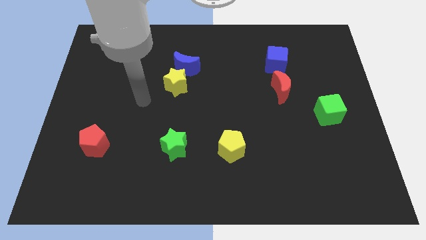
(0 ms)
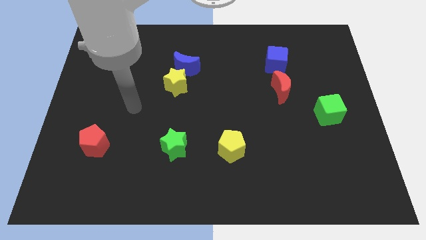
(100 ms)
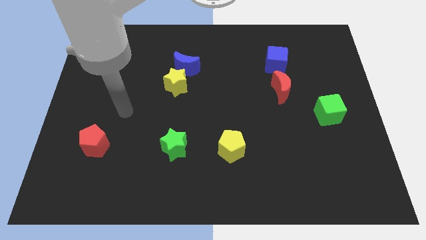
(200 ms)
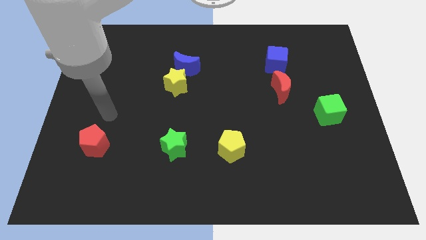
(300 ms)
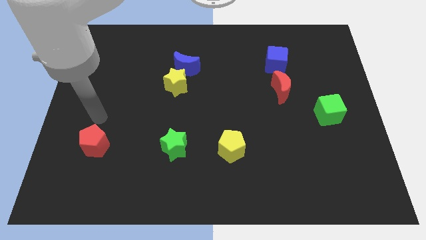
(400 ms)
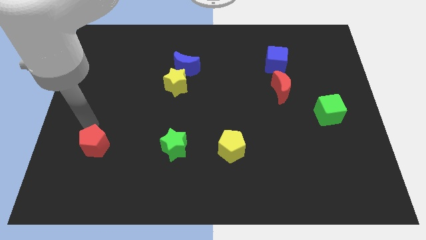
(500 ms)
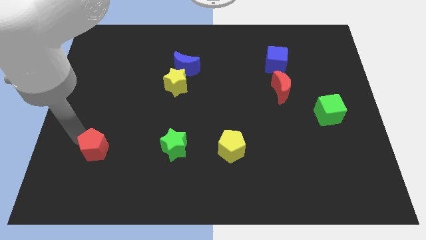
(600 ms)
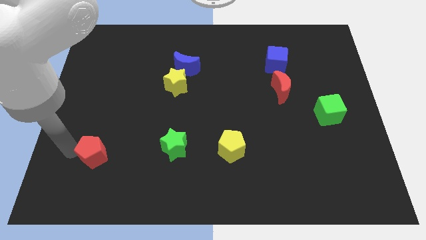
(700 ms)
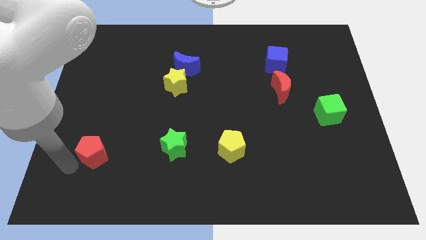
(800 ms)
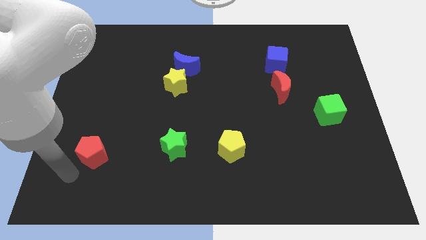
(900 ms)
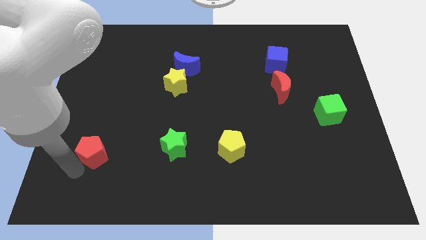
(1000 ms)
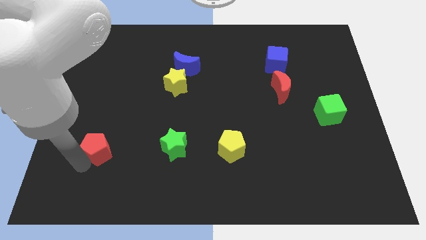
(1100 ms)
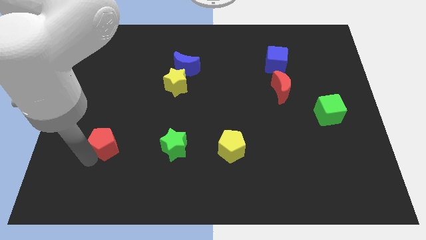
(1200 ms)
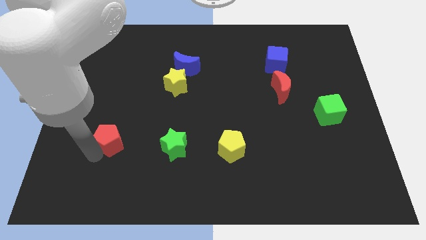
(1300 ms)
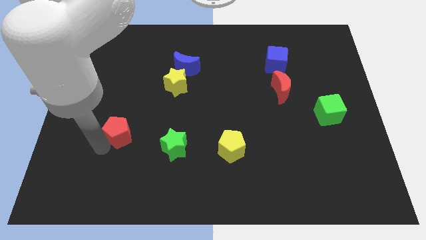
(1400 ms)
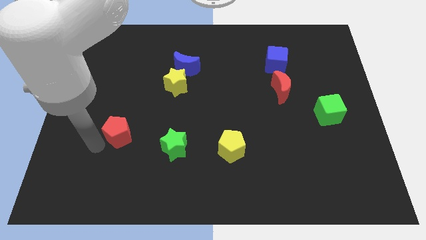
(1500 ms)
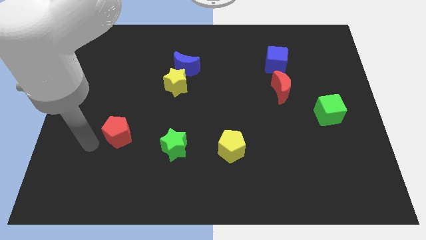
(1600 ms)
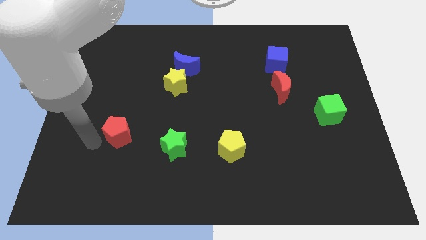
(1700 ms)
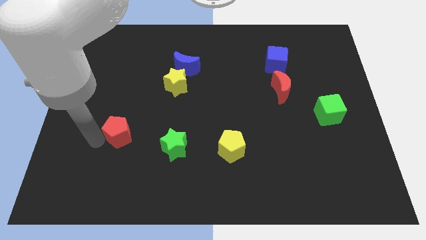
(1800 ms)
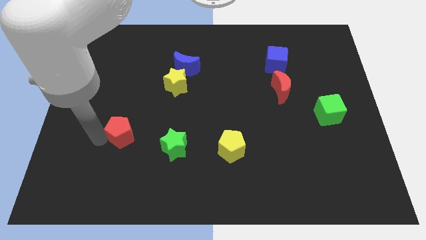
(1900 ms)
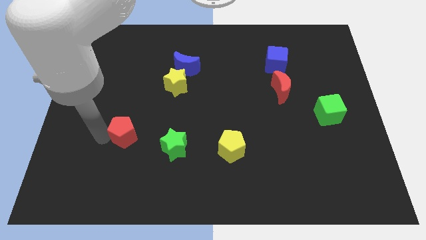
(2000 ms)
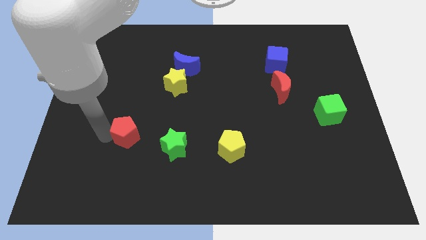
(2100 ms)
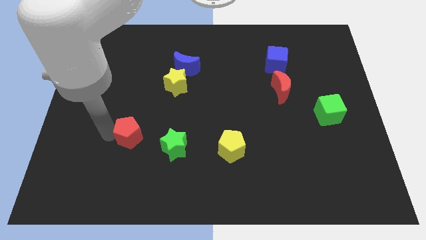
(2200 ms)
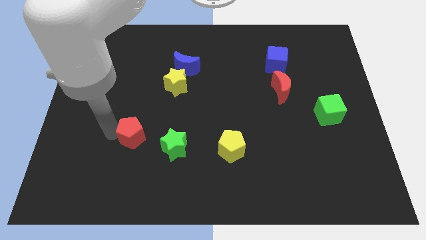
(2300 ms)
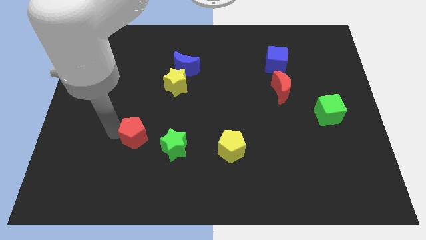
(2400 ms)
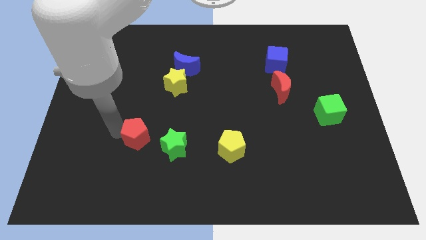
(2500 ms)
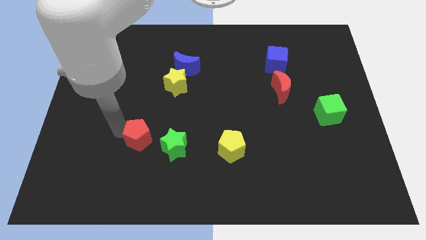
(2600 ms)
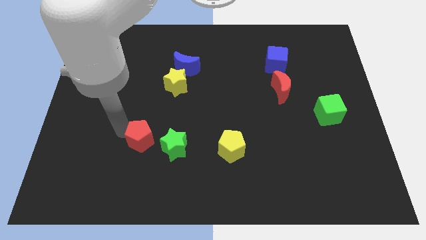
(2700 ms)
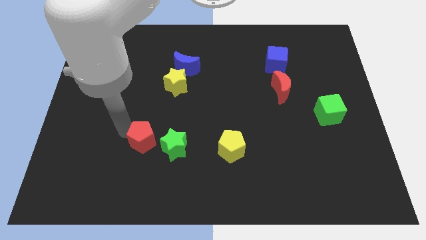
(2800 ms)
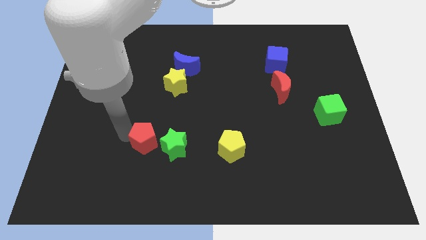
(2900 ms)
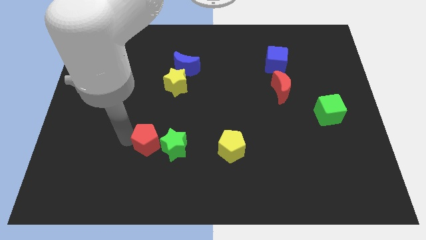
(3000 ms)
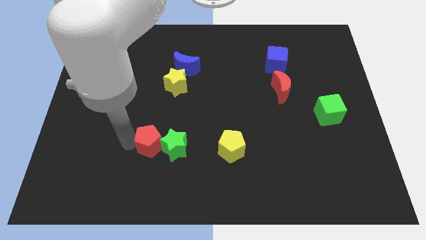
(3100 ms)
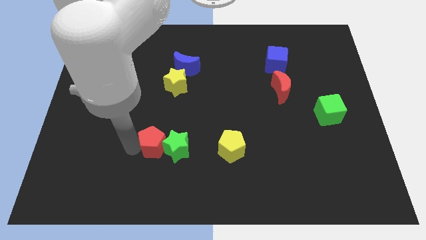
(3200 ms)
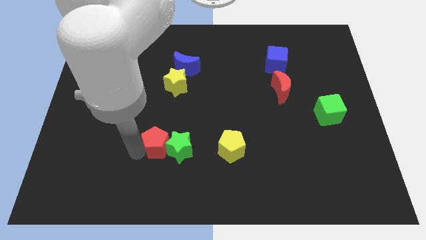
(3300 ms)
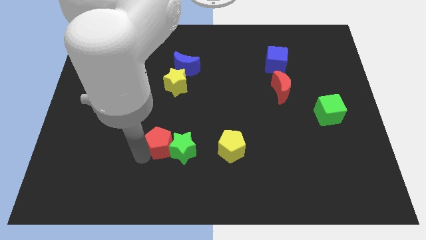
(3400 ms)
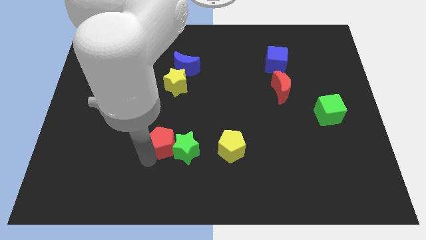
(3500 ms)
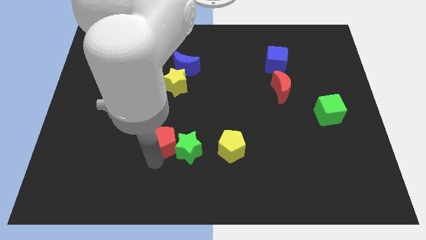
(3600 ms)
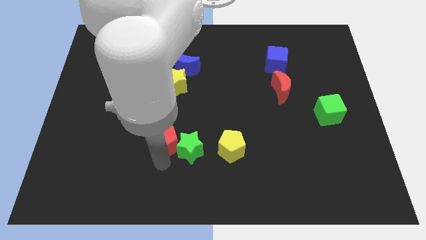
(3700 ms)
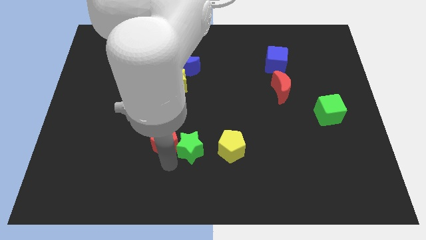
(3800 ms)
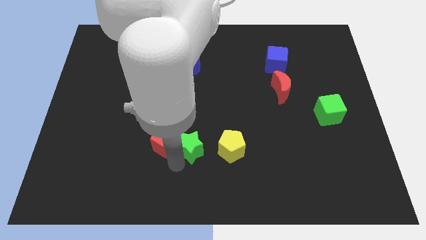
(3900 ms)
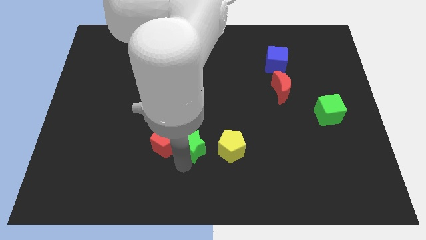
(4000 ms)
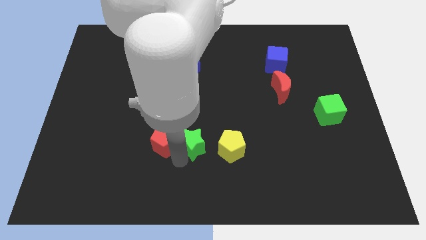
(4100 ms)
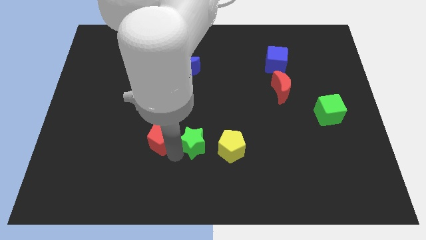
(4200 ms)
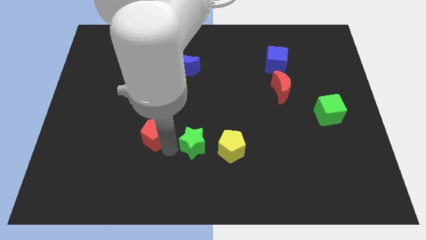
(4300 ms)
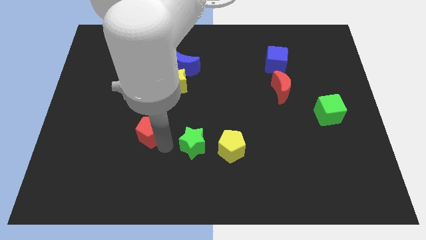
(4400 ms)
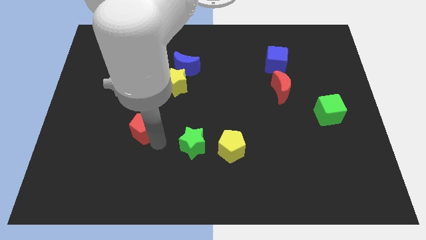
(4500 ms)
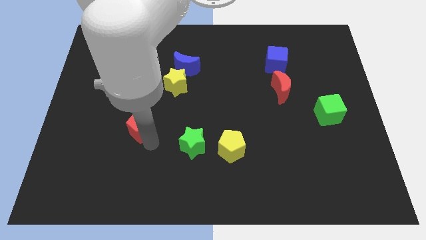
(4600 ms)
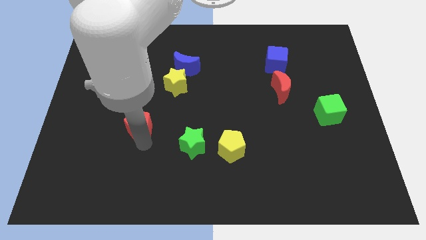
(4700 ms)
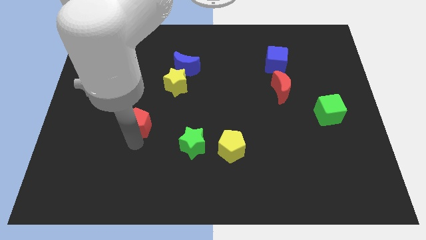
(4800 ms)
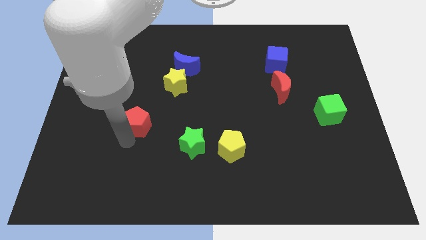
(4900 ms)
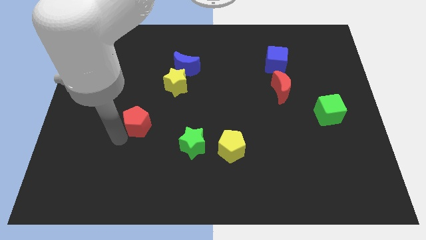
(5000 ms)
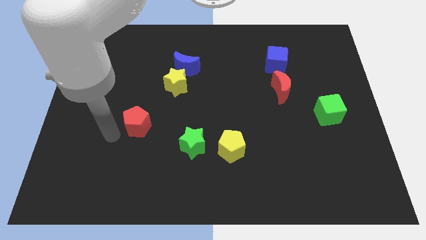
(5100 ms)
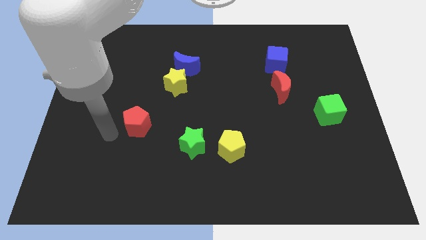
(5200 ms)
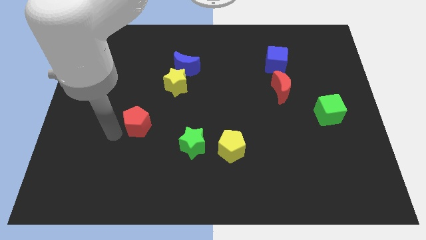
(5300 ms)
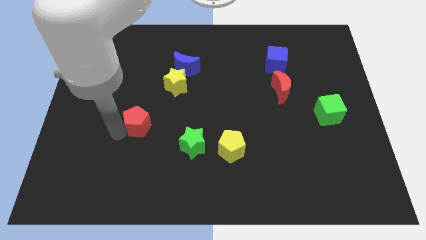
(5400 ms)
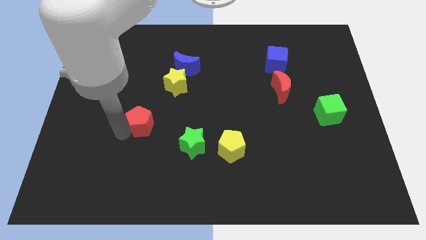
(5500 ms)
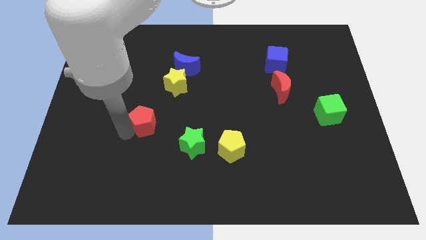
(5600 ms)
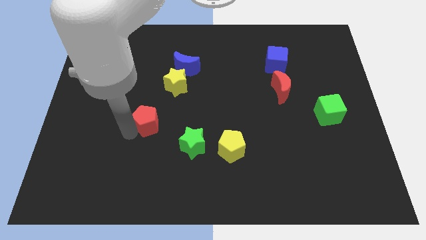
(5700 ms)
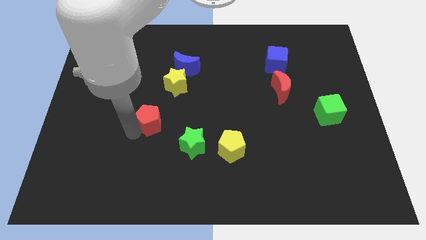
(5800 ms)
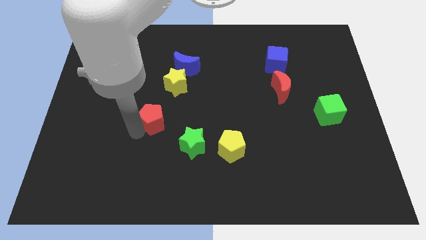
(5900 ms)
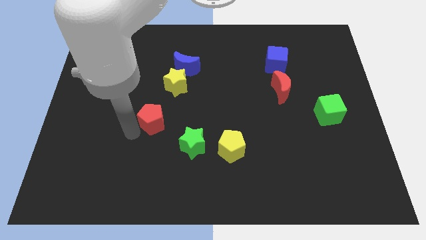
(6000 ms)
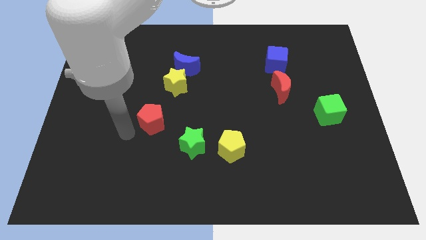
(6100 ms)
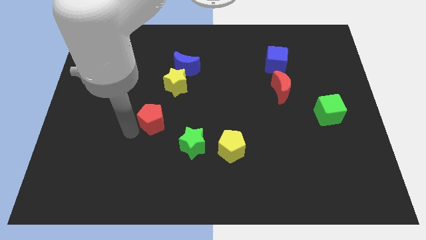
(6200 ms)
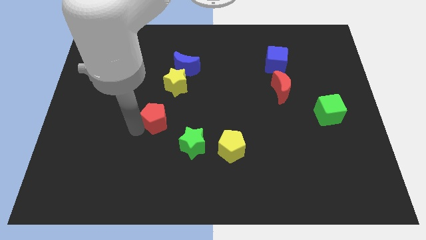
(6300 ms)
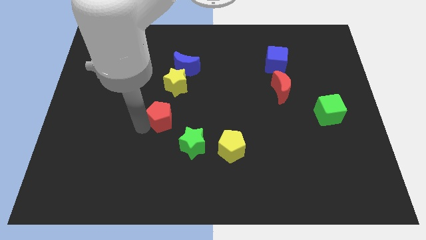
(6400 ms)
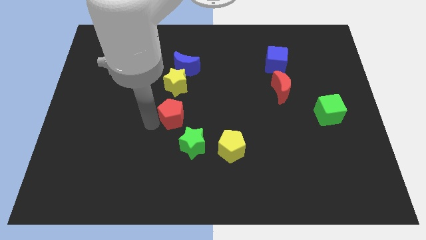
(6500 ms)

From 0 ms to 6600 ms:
slide the red pentagon to the middle

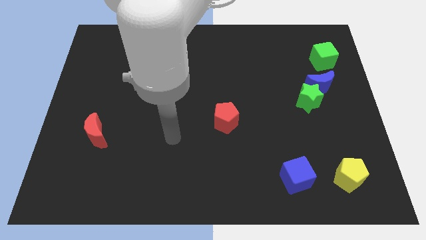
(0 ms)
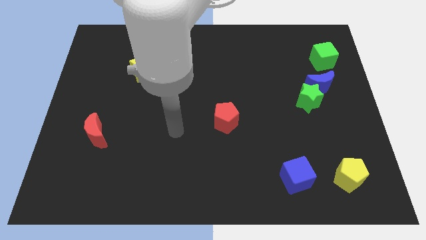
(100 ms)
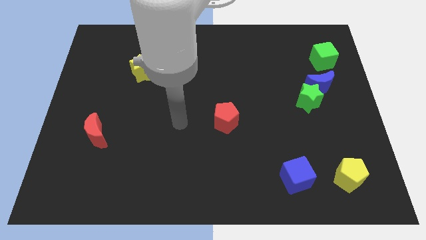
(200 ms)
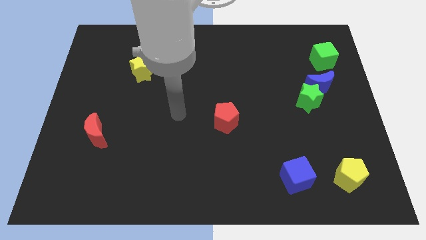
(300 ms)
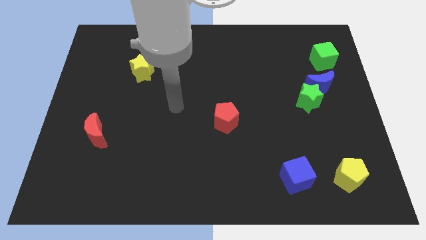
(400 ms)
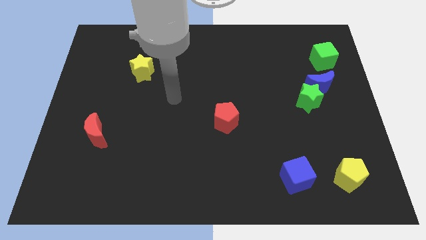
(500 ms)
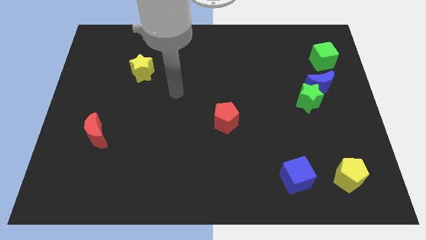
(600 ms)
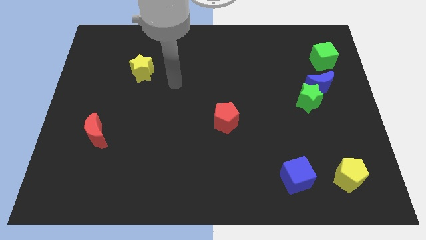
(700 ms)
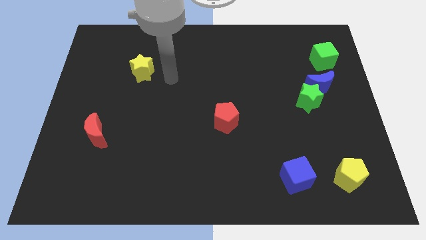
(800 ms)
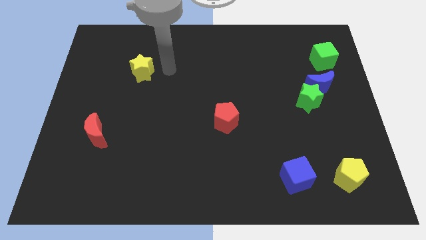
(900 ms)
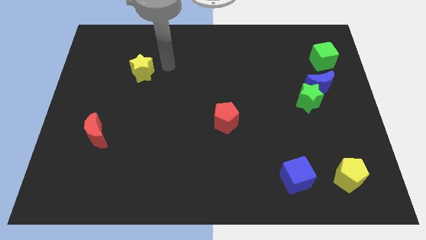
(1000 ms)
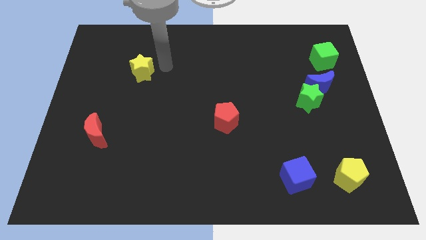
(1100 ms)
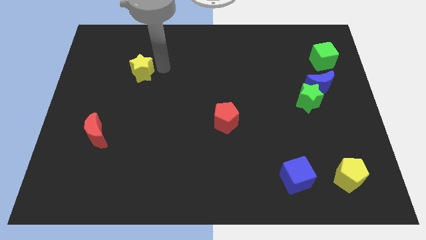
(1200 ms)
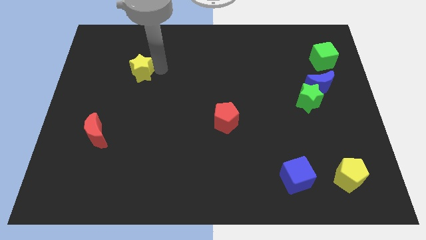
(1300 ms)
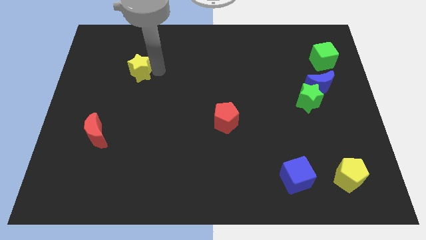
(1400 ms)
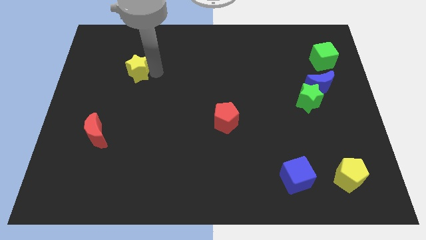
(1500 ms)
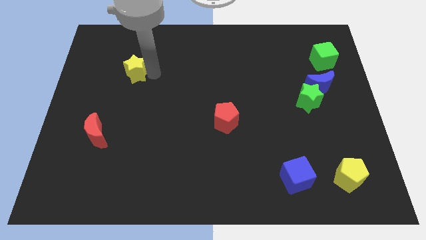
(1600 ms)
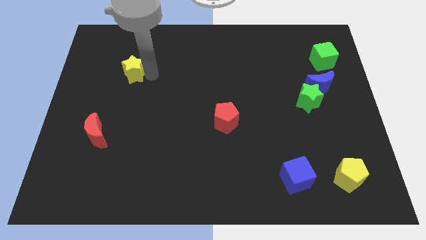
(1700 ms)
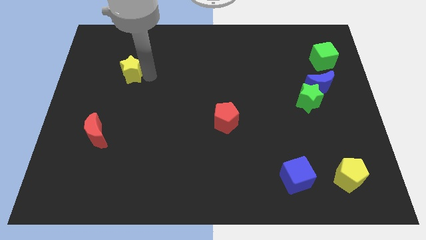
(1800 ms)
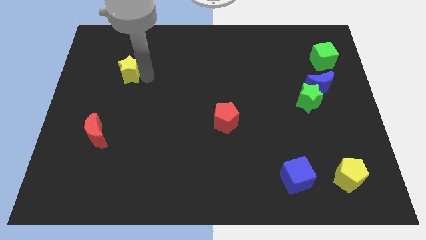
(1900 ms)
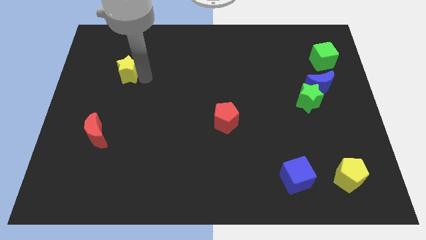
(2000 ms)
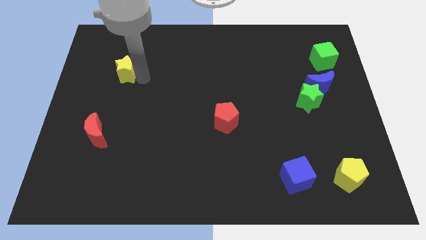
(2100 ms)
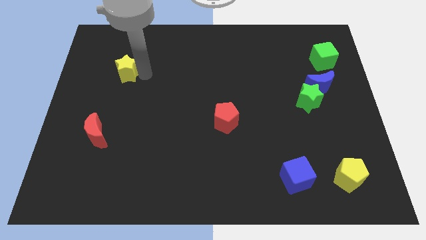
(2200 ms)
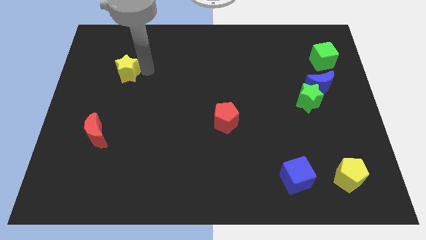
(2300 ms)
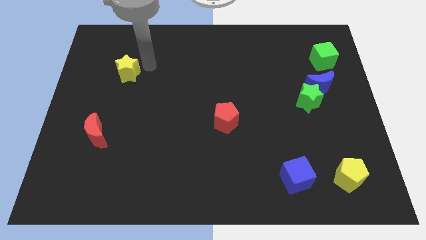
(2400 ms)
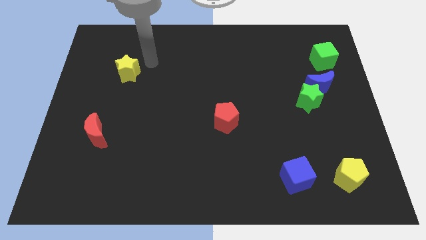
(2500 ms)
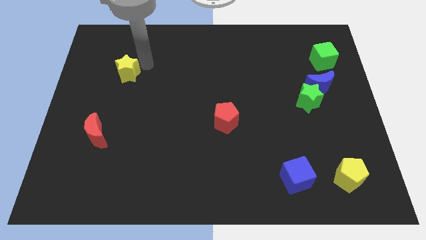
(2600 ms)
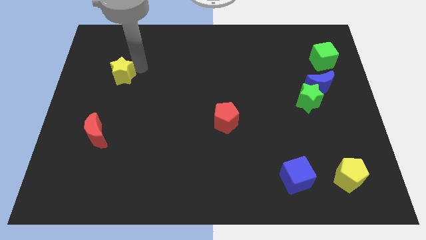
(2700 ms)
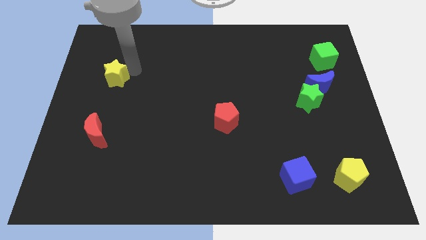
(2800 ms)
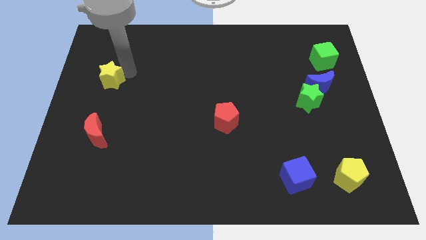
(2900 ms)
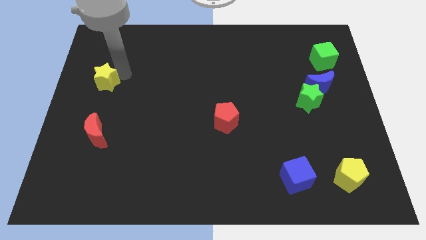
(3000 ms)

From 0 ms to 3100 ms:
move the yellow star to the left side
